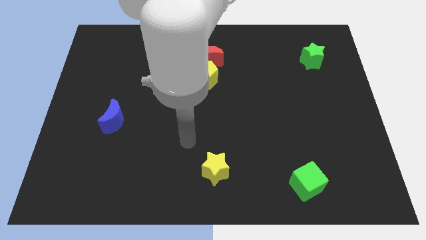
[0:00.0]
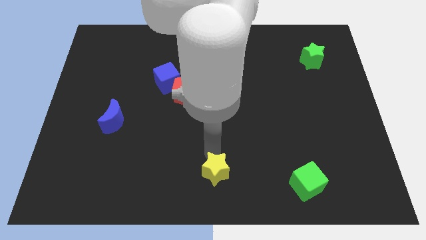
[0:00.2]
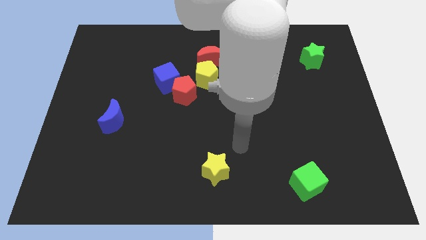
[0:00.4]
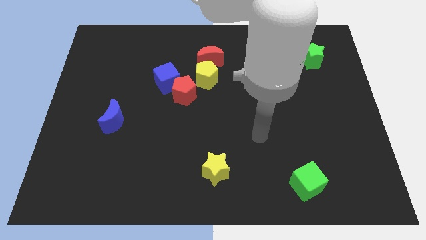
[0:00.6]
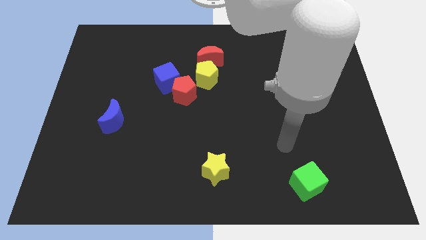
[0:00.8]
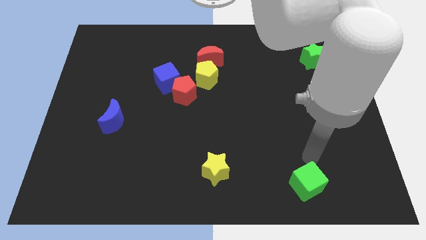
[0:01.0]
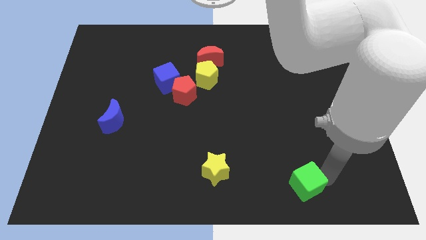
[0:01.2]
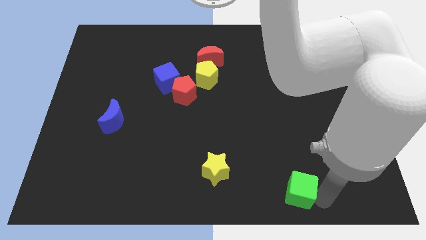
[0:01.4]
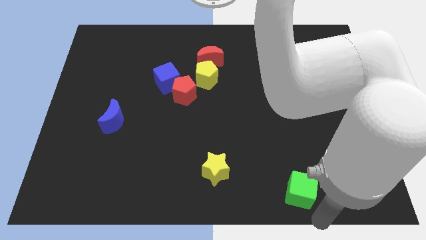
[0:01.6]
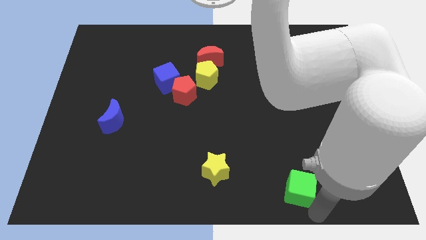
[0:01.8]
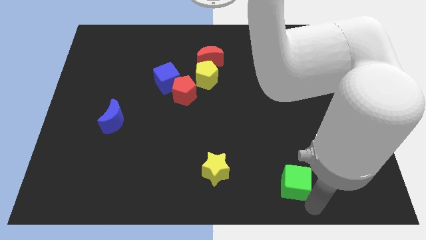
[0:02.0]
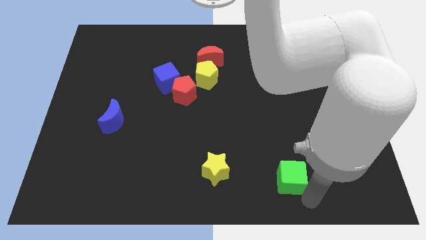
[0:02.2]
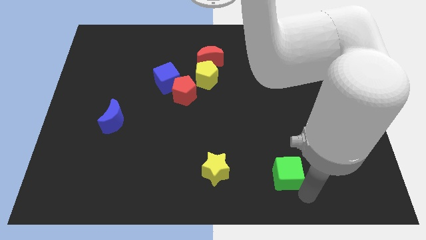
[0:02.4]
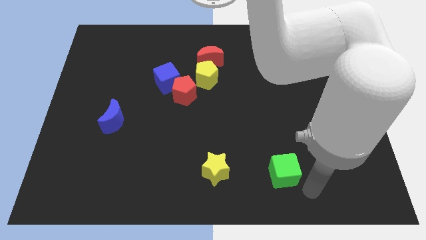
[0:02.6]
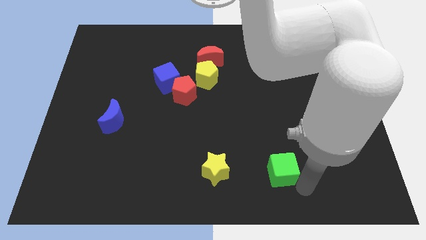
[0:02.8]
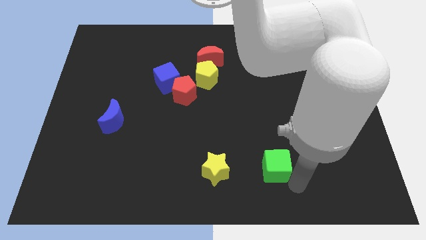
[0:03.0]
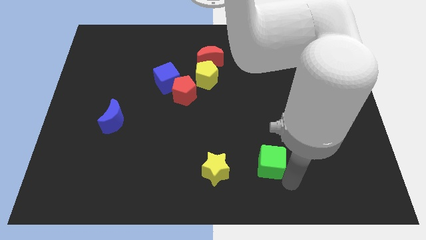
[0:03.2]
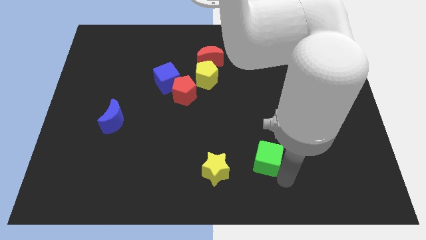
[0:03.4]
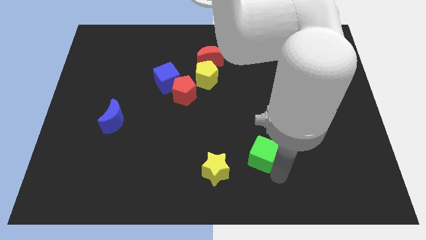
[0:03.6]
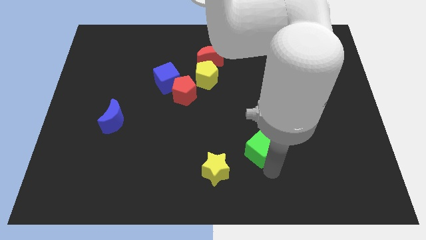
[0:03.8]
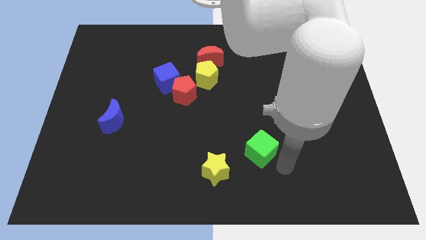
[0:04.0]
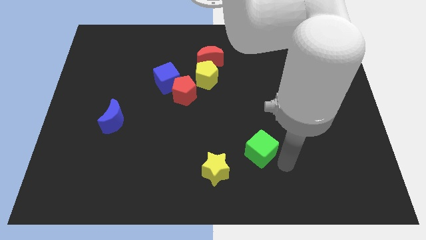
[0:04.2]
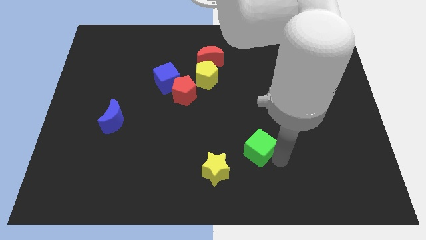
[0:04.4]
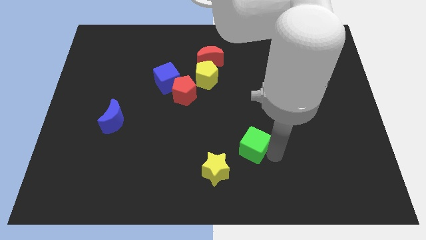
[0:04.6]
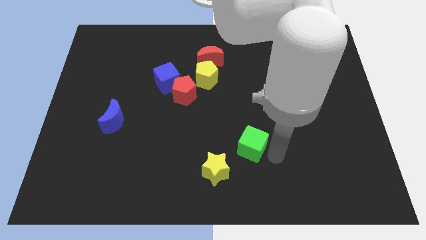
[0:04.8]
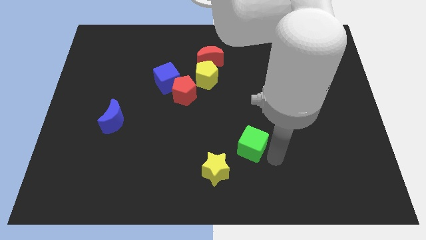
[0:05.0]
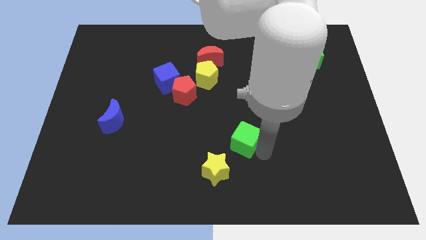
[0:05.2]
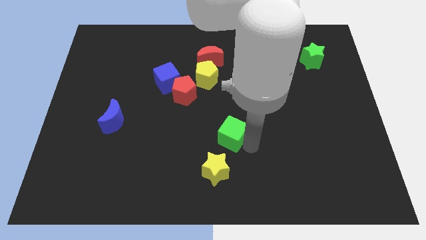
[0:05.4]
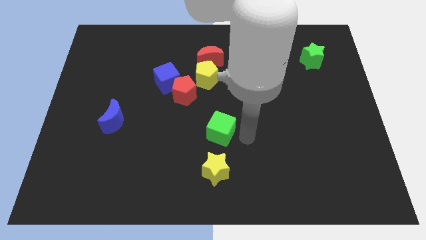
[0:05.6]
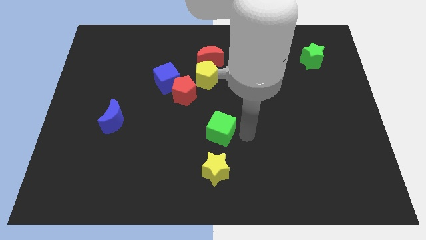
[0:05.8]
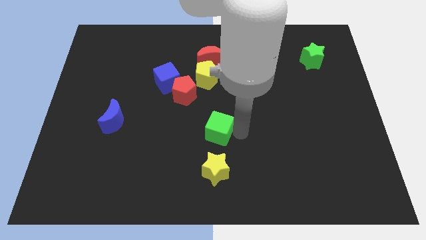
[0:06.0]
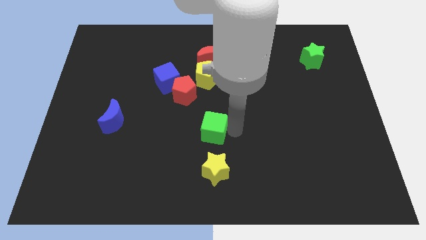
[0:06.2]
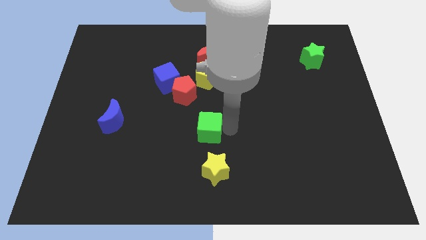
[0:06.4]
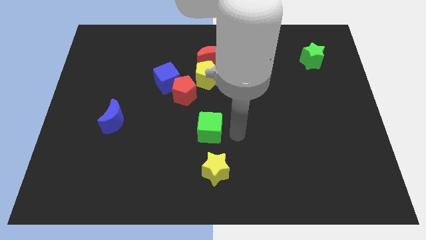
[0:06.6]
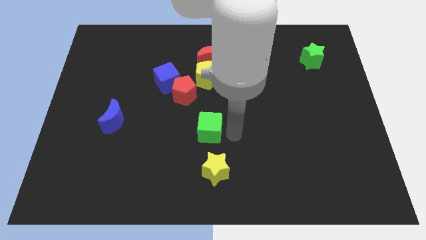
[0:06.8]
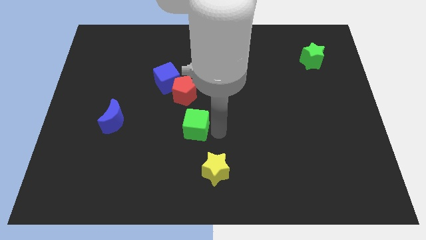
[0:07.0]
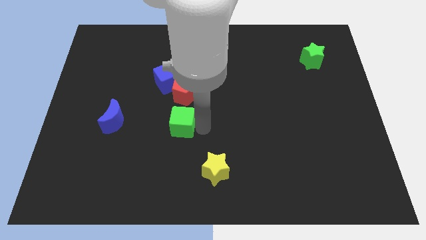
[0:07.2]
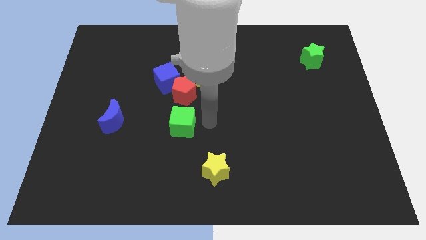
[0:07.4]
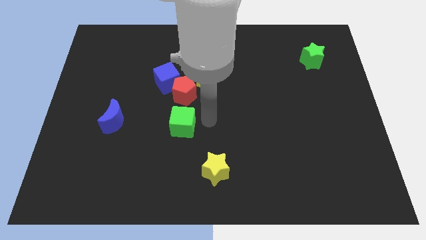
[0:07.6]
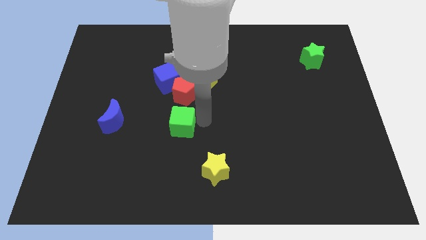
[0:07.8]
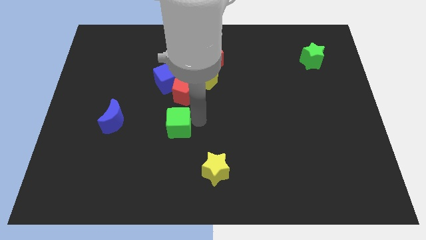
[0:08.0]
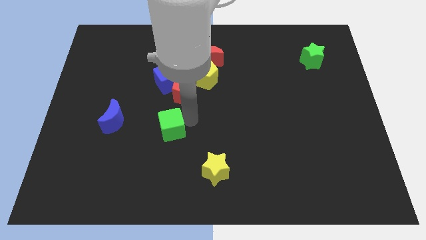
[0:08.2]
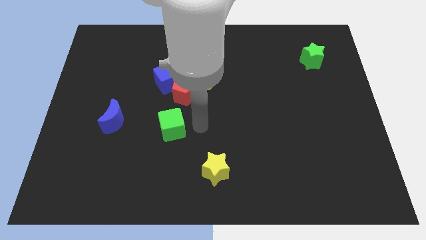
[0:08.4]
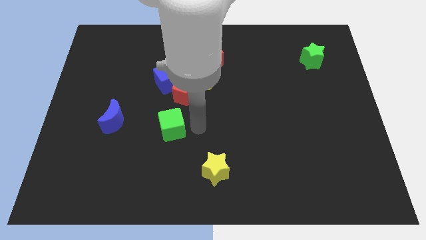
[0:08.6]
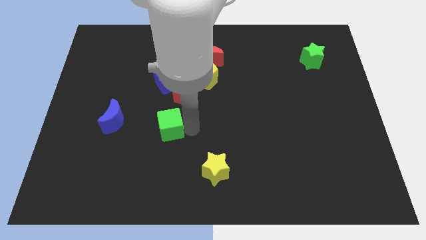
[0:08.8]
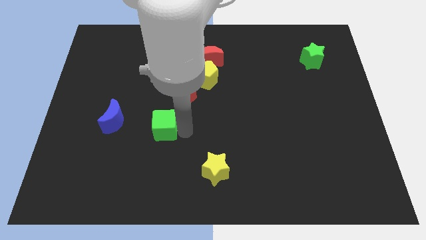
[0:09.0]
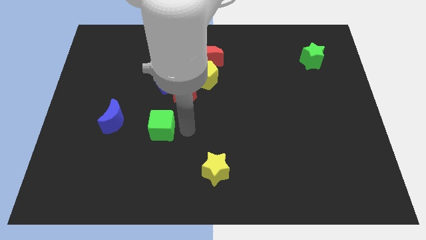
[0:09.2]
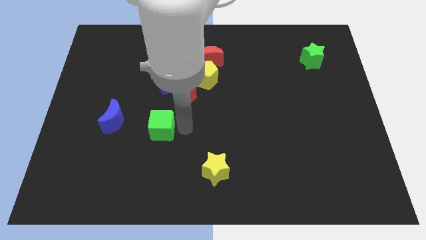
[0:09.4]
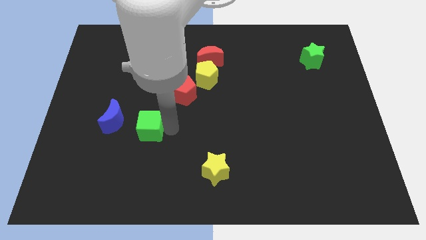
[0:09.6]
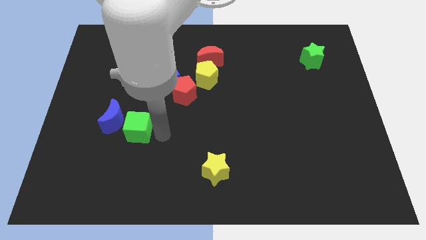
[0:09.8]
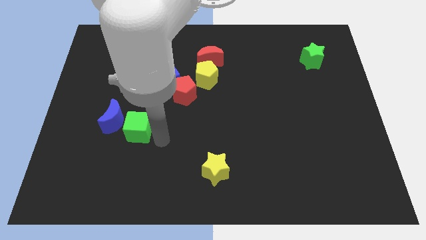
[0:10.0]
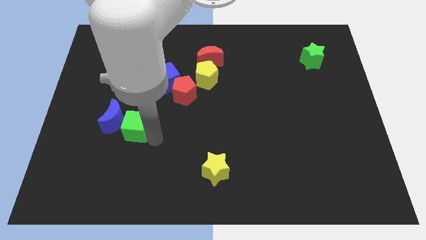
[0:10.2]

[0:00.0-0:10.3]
put the green cube to the blue moon

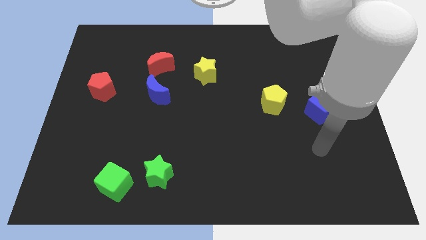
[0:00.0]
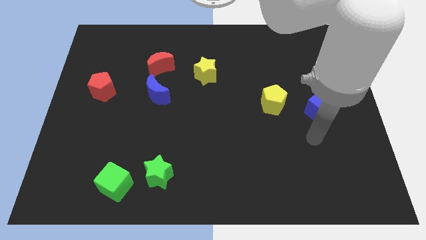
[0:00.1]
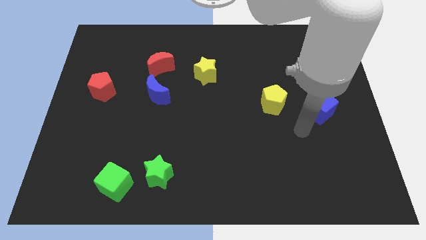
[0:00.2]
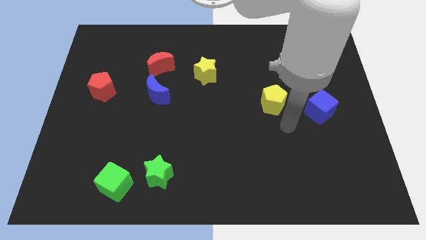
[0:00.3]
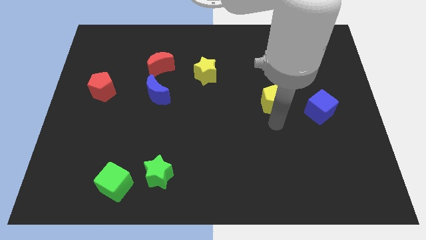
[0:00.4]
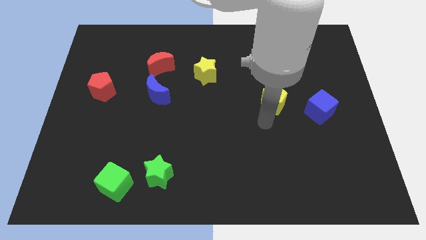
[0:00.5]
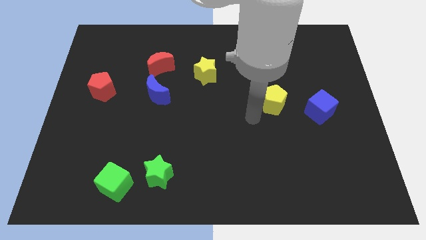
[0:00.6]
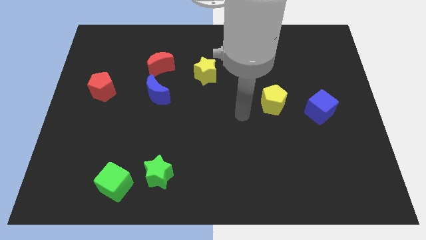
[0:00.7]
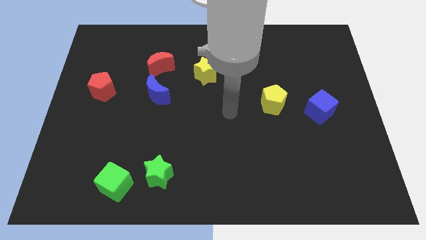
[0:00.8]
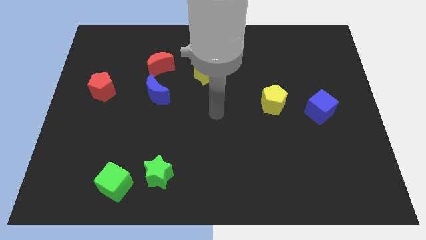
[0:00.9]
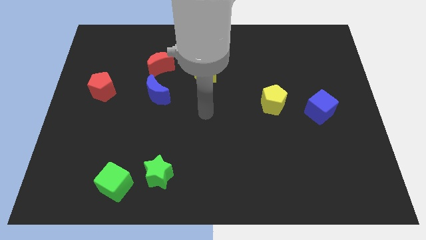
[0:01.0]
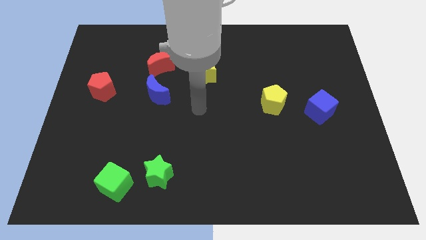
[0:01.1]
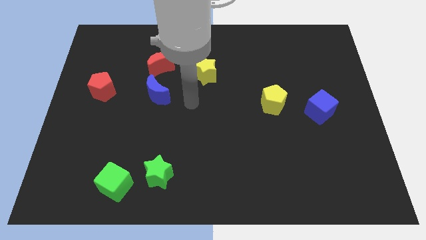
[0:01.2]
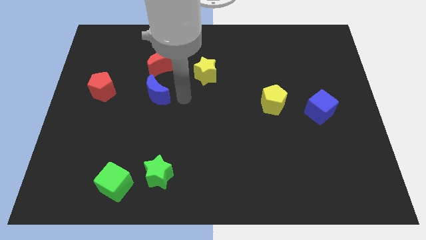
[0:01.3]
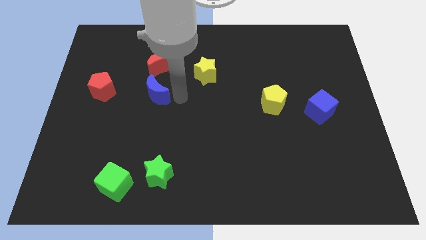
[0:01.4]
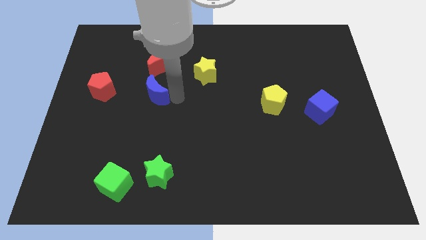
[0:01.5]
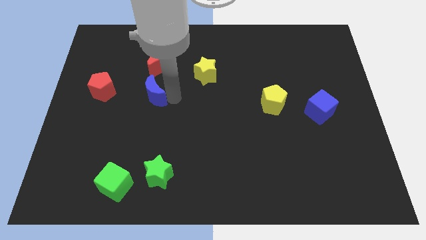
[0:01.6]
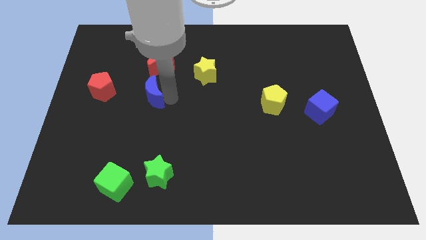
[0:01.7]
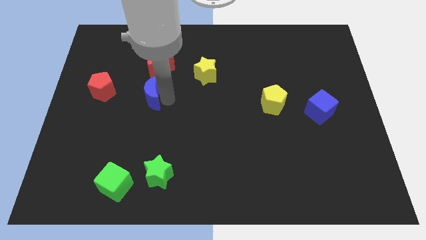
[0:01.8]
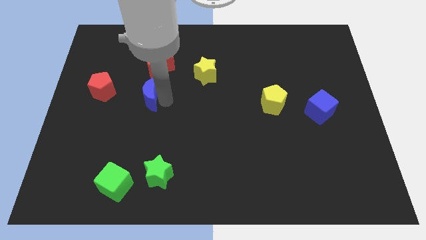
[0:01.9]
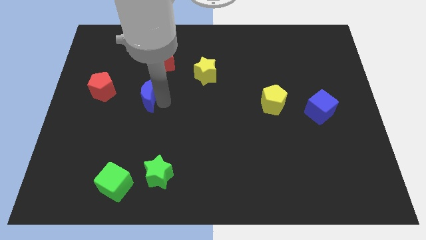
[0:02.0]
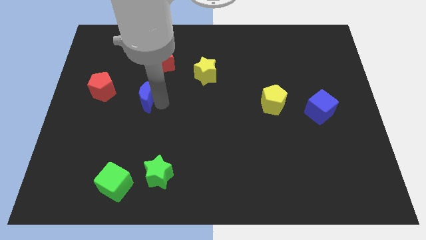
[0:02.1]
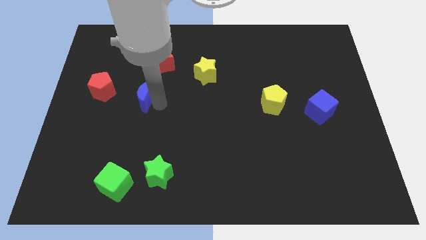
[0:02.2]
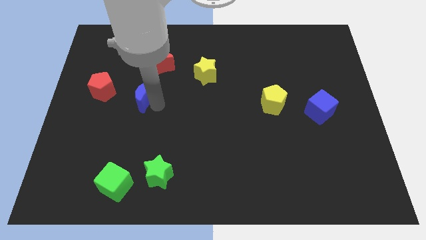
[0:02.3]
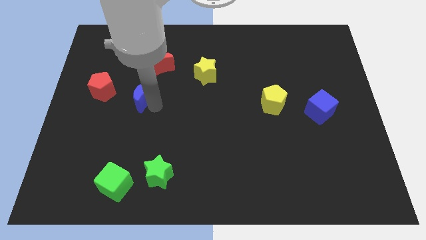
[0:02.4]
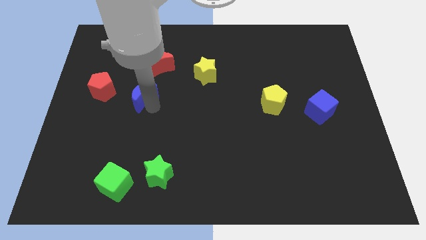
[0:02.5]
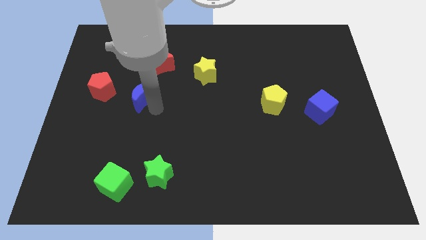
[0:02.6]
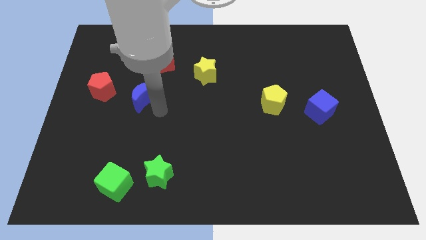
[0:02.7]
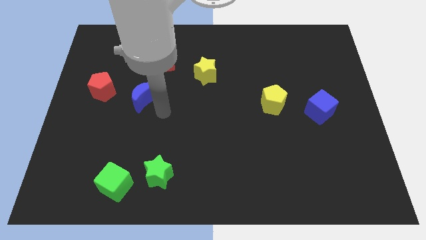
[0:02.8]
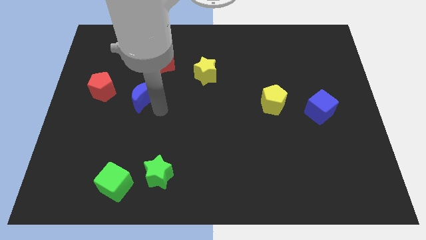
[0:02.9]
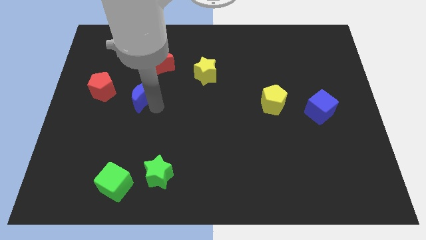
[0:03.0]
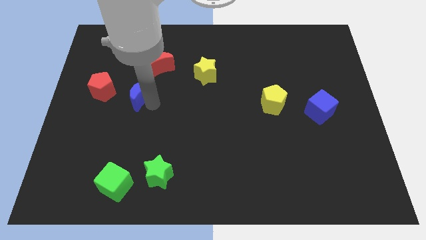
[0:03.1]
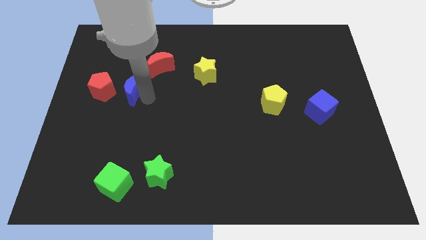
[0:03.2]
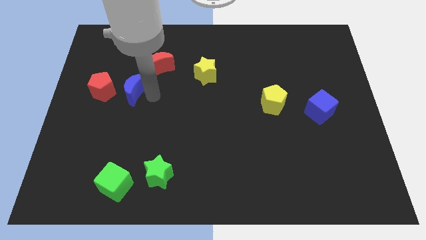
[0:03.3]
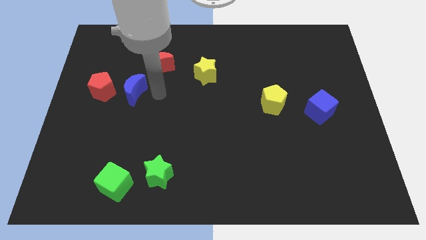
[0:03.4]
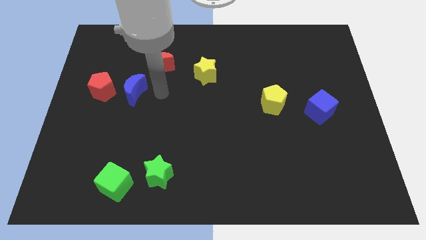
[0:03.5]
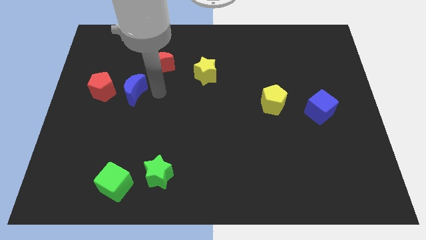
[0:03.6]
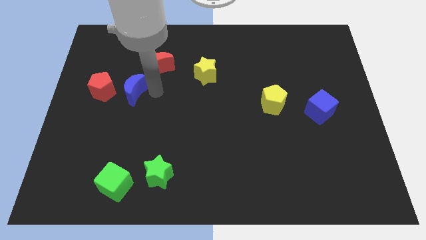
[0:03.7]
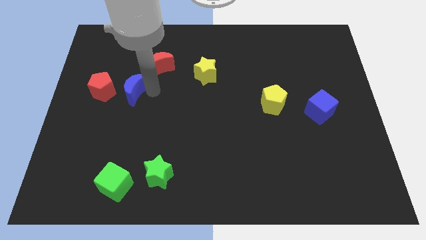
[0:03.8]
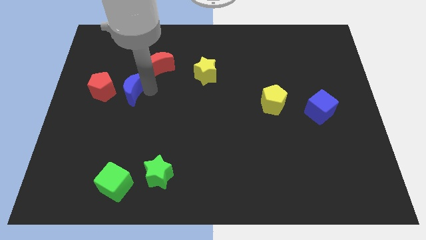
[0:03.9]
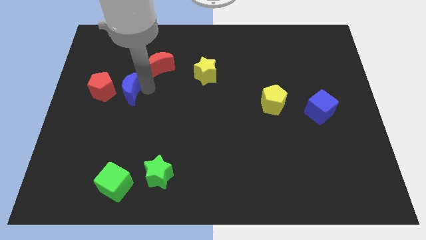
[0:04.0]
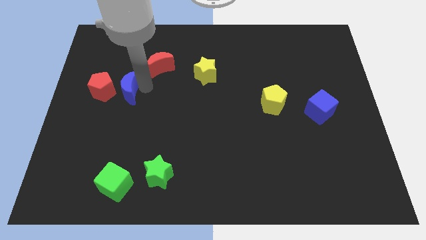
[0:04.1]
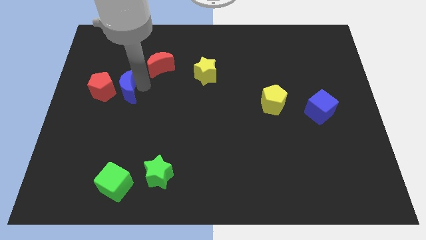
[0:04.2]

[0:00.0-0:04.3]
slide the blue moon close to the red pentagon
